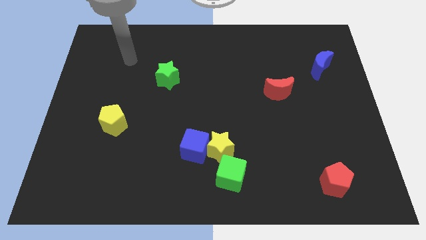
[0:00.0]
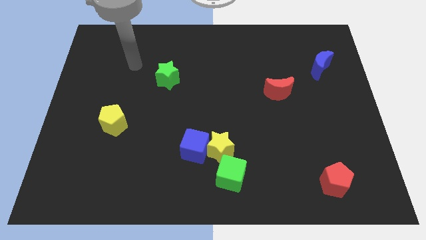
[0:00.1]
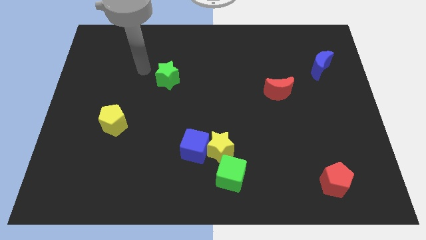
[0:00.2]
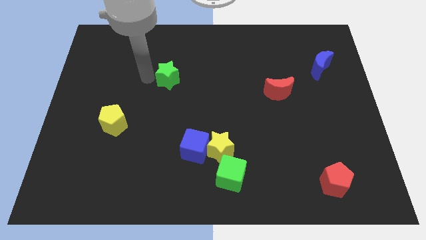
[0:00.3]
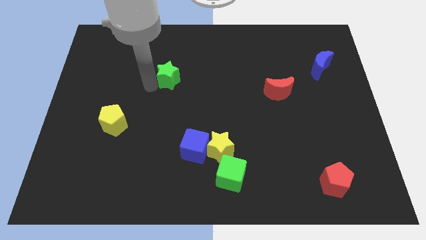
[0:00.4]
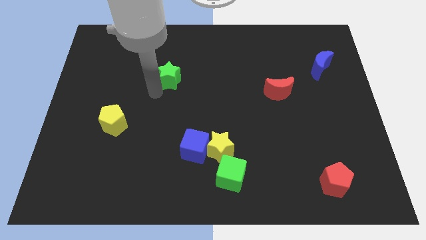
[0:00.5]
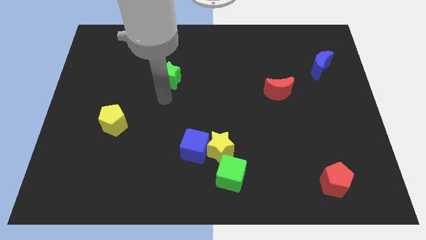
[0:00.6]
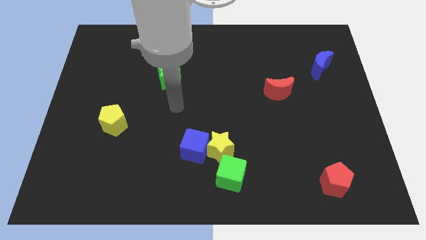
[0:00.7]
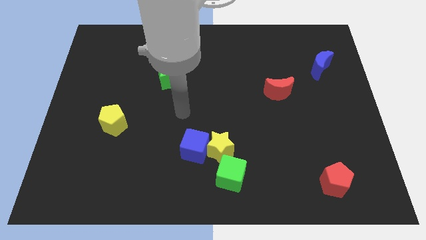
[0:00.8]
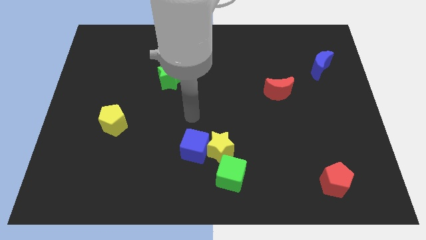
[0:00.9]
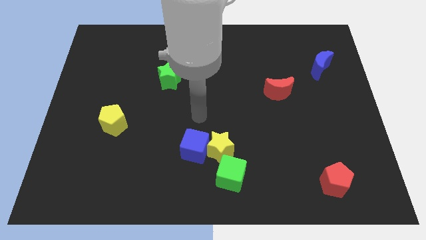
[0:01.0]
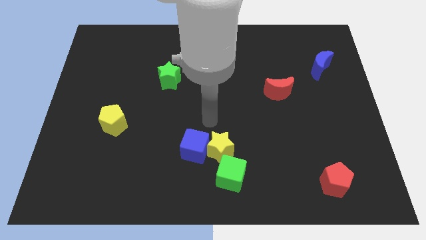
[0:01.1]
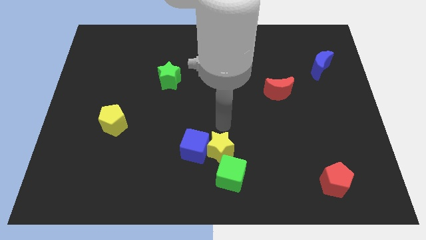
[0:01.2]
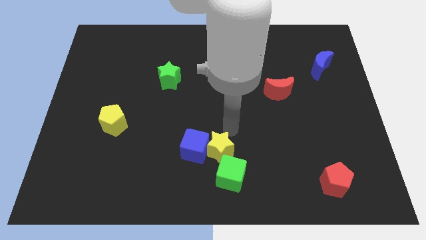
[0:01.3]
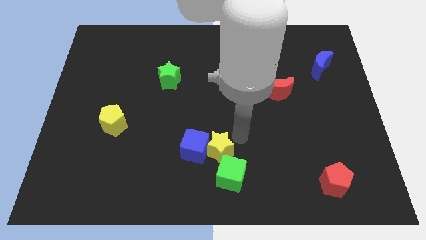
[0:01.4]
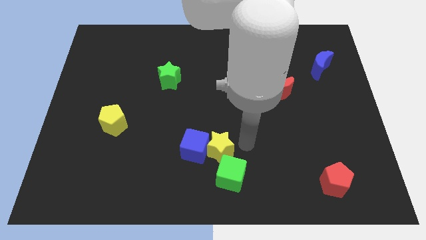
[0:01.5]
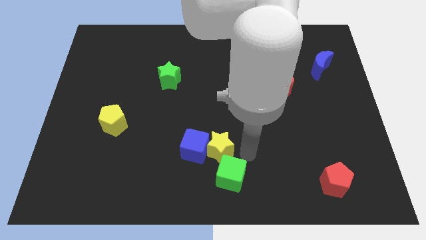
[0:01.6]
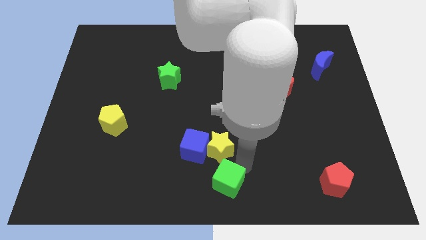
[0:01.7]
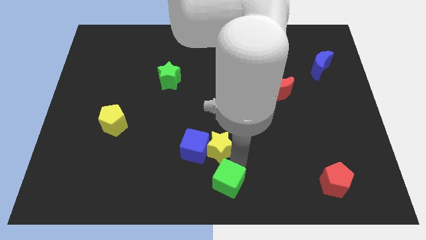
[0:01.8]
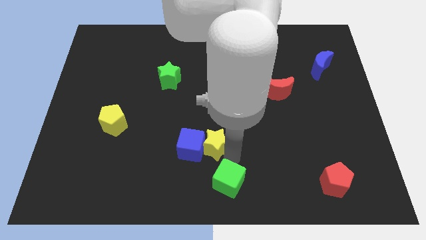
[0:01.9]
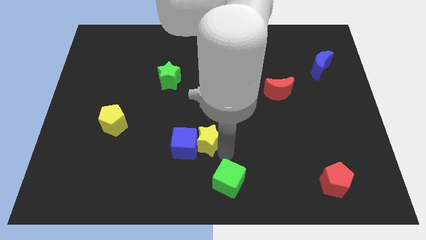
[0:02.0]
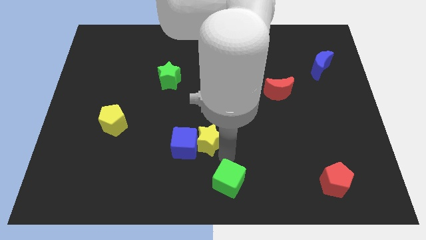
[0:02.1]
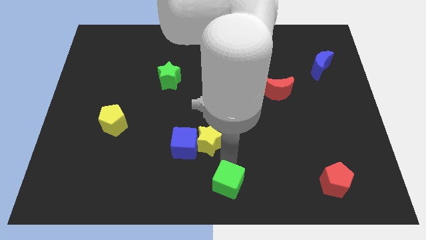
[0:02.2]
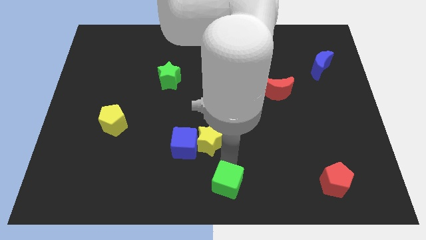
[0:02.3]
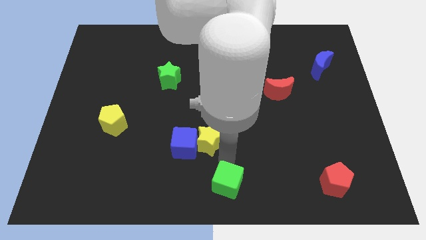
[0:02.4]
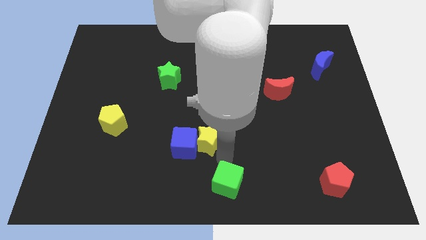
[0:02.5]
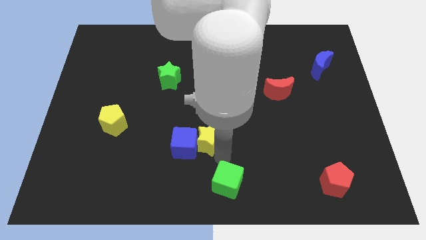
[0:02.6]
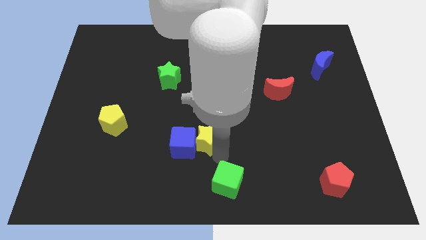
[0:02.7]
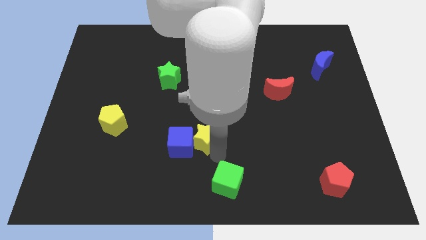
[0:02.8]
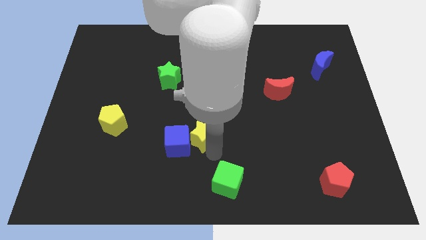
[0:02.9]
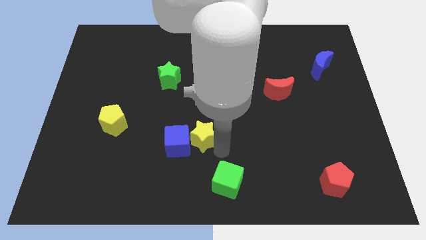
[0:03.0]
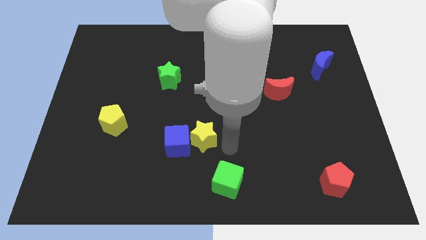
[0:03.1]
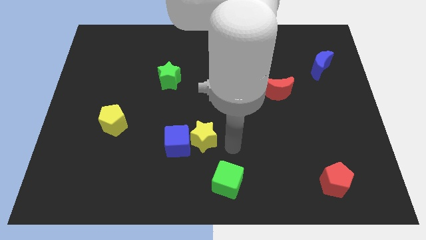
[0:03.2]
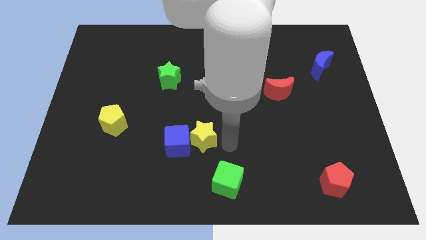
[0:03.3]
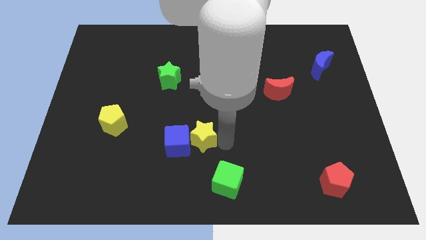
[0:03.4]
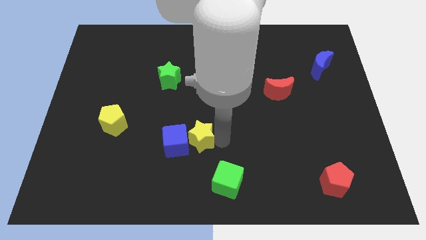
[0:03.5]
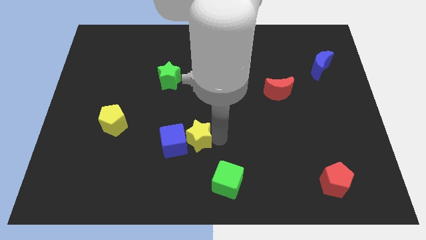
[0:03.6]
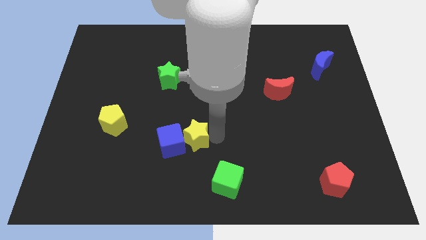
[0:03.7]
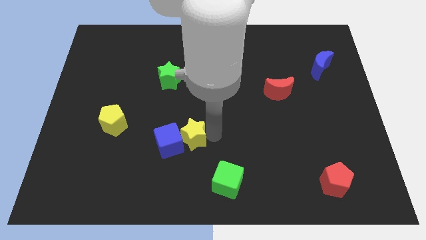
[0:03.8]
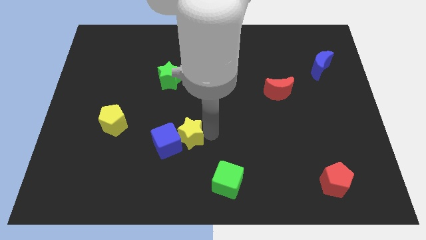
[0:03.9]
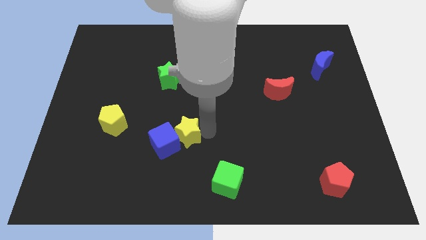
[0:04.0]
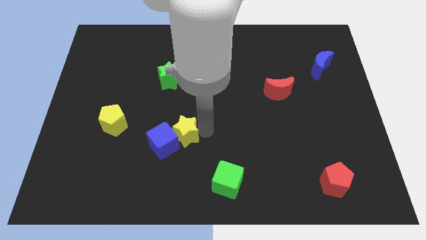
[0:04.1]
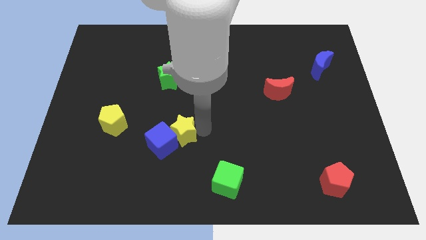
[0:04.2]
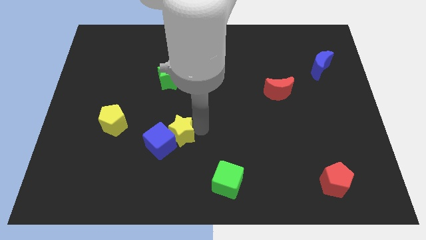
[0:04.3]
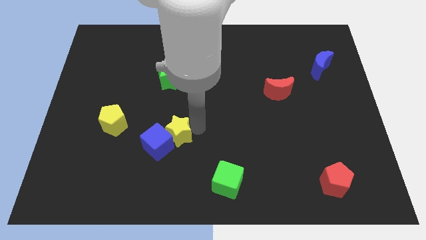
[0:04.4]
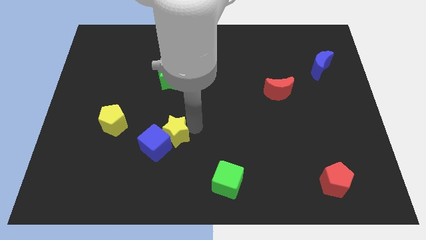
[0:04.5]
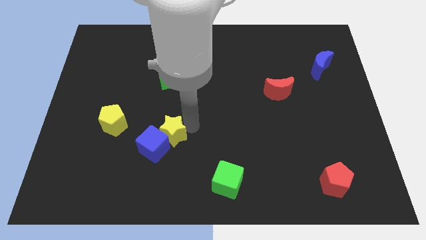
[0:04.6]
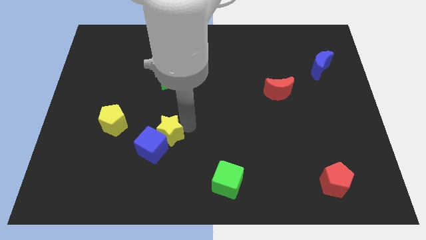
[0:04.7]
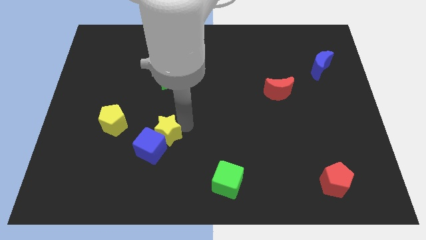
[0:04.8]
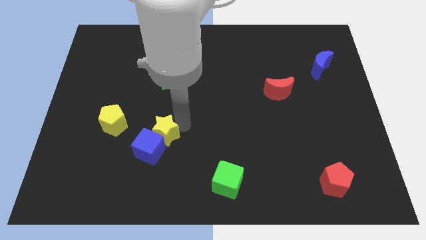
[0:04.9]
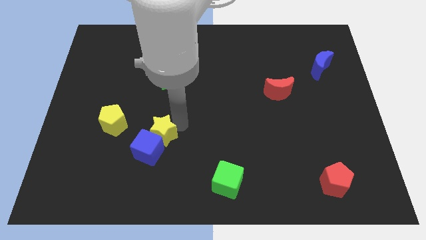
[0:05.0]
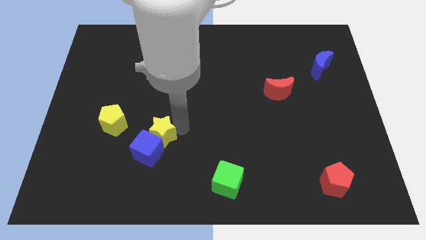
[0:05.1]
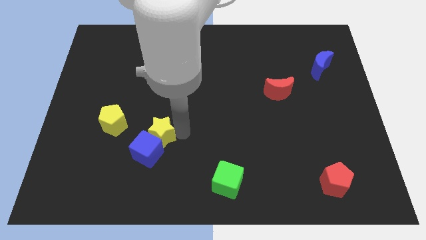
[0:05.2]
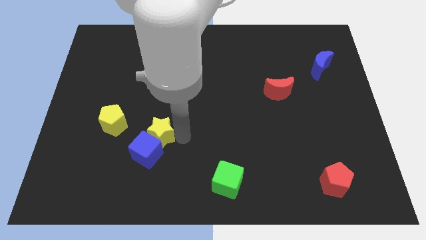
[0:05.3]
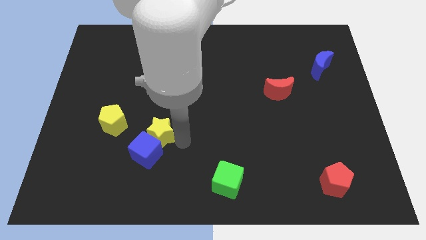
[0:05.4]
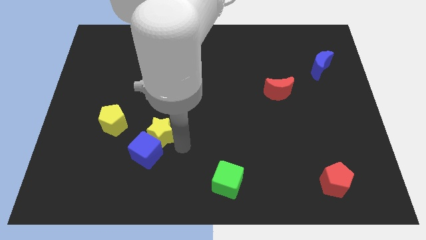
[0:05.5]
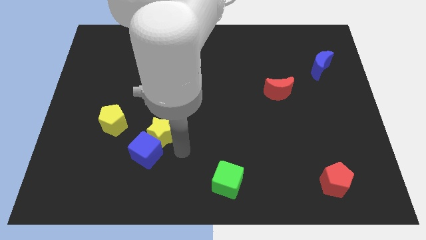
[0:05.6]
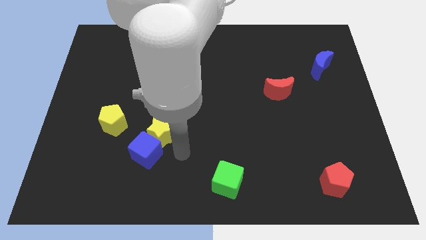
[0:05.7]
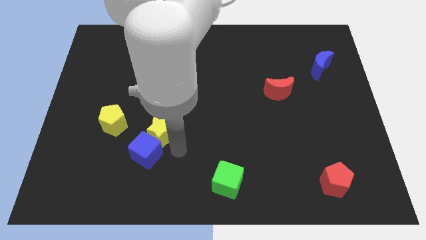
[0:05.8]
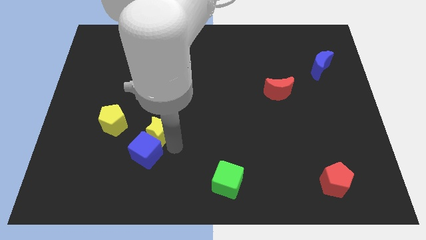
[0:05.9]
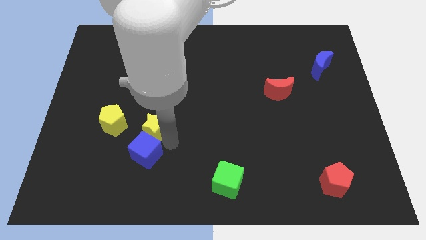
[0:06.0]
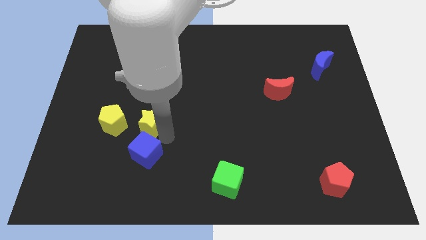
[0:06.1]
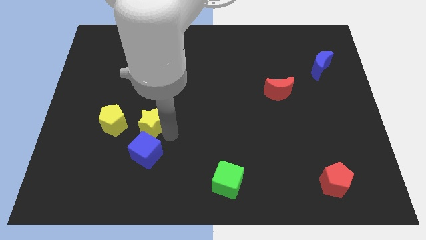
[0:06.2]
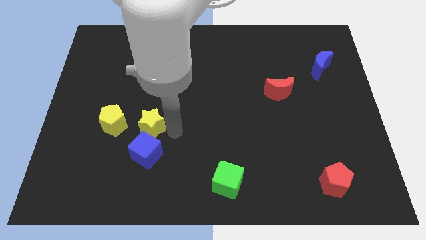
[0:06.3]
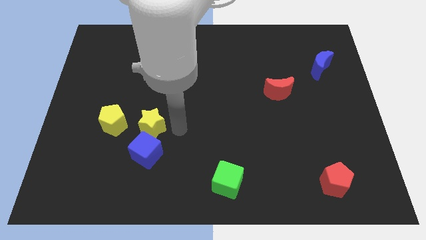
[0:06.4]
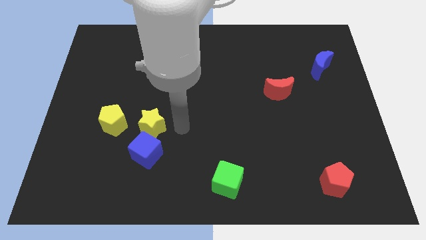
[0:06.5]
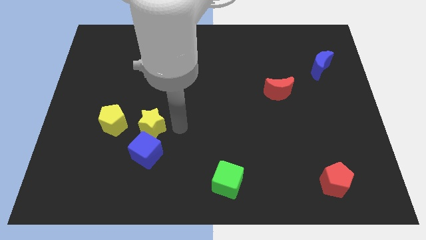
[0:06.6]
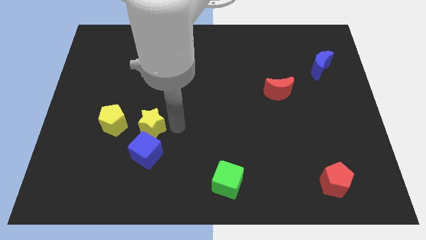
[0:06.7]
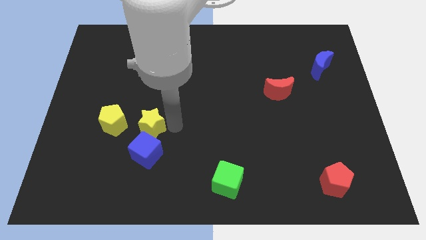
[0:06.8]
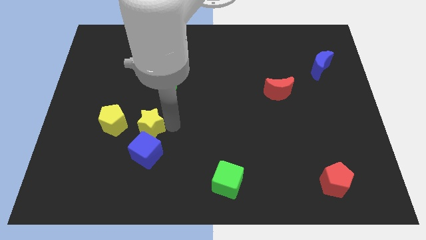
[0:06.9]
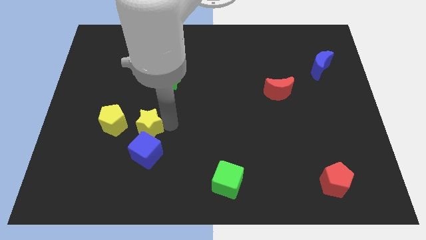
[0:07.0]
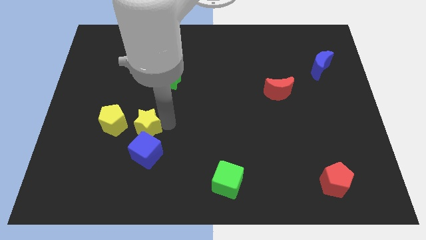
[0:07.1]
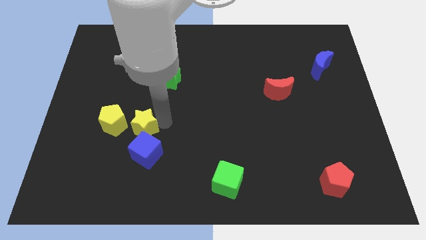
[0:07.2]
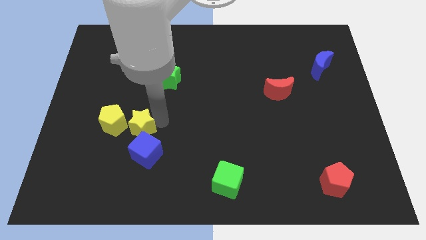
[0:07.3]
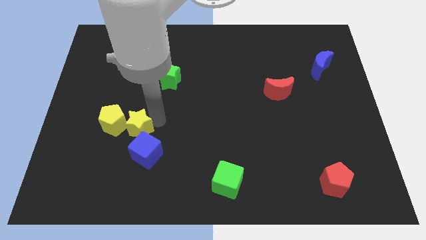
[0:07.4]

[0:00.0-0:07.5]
move the yellow star next to the yellow pentagon
